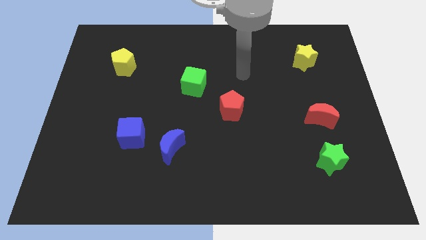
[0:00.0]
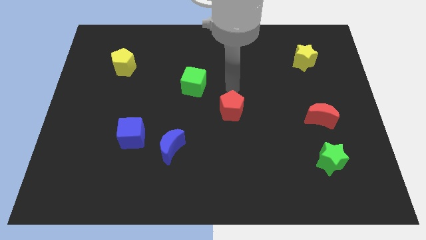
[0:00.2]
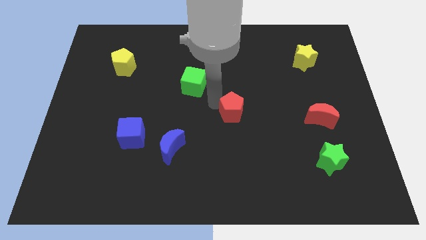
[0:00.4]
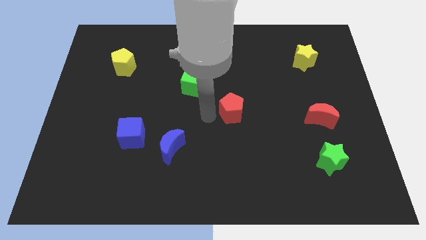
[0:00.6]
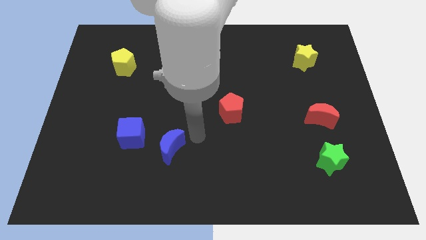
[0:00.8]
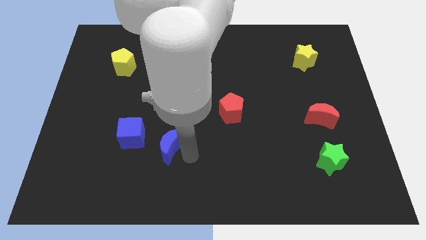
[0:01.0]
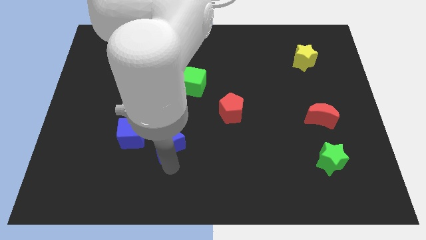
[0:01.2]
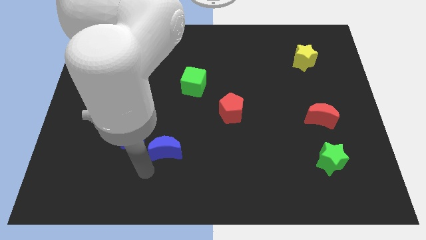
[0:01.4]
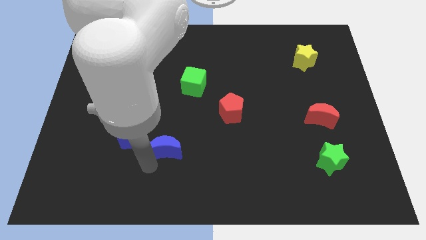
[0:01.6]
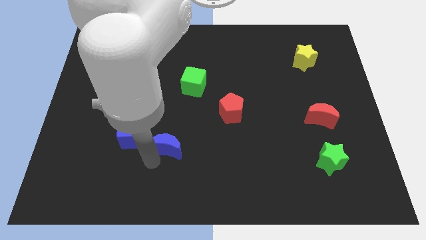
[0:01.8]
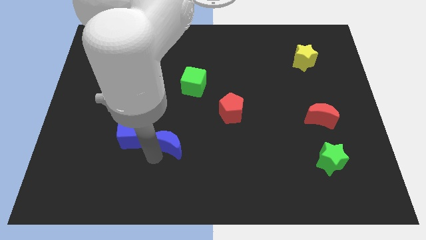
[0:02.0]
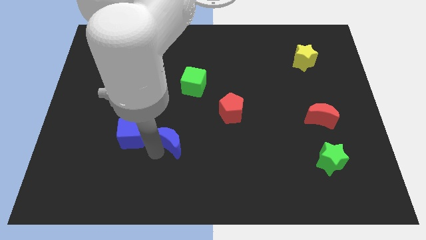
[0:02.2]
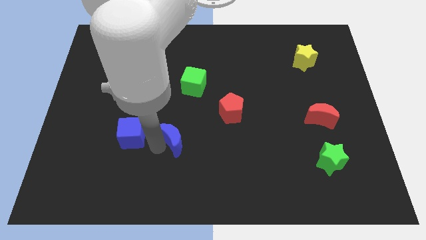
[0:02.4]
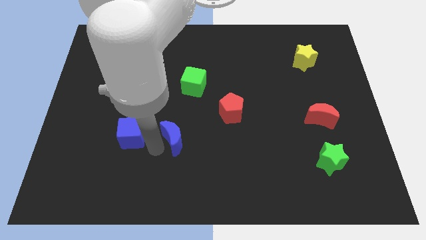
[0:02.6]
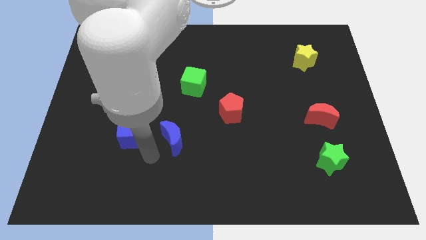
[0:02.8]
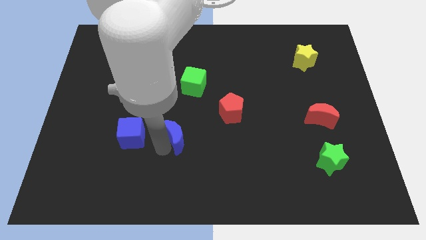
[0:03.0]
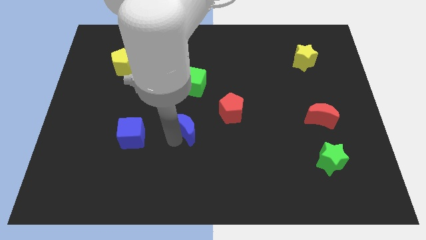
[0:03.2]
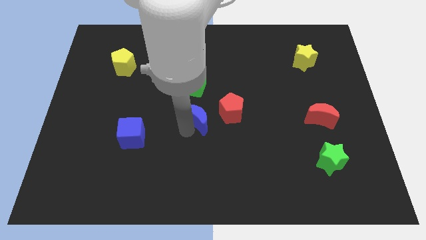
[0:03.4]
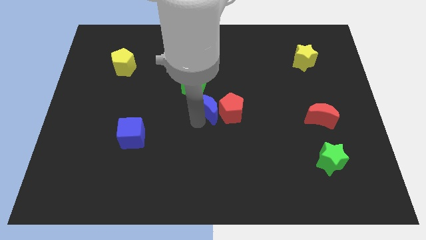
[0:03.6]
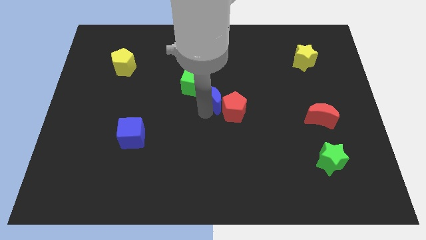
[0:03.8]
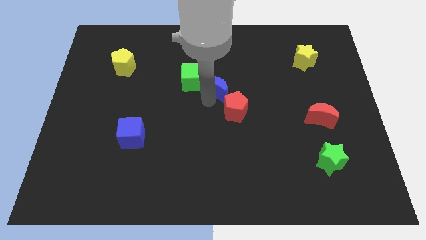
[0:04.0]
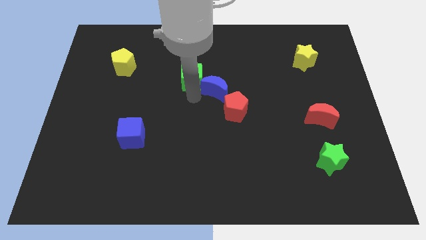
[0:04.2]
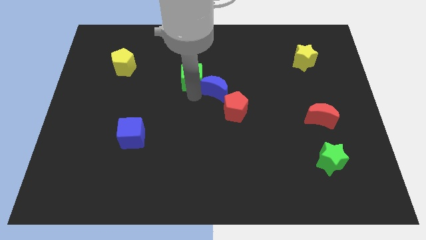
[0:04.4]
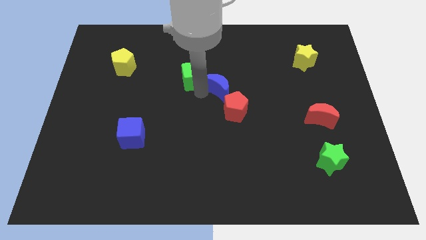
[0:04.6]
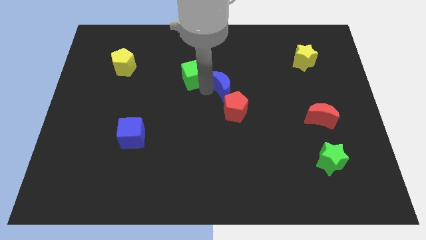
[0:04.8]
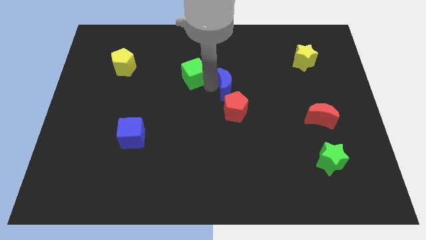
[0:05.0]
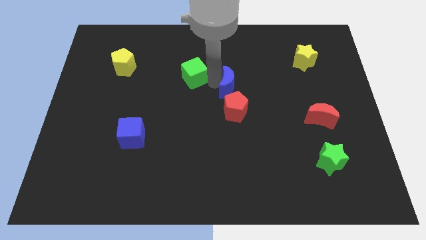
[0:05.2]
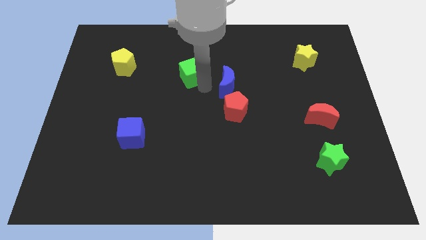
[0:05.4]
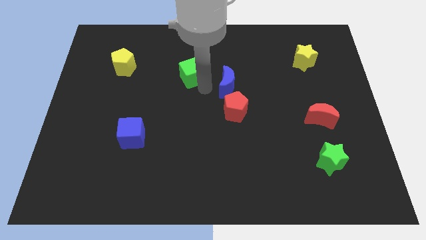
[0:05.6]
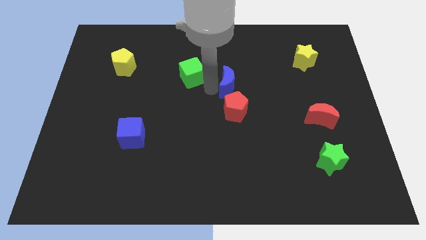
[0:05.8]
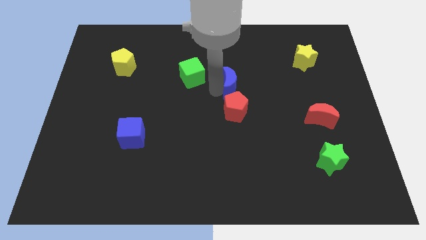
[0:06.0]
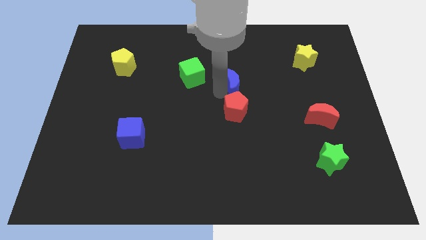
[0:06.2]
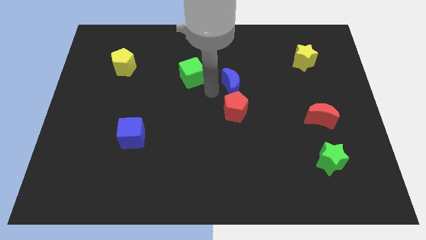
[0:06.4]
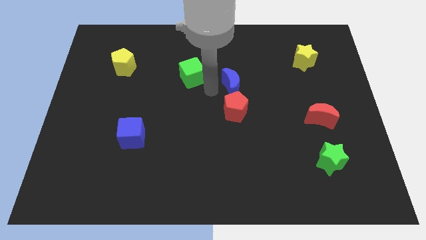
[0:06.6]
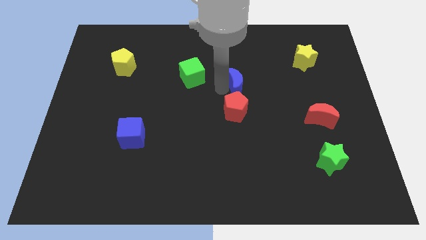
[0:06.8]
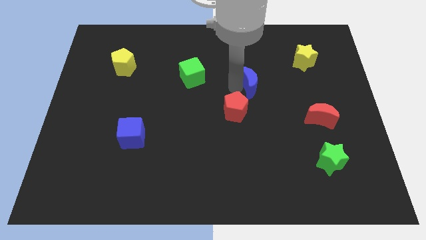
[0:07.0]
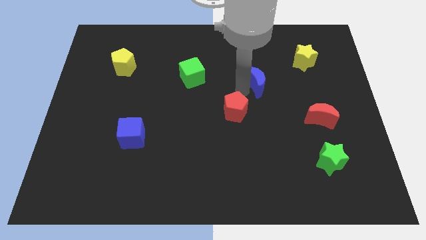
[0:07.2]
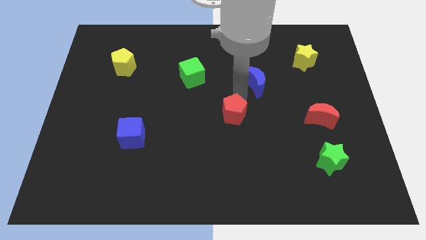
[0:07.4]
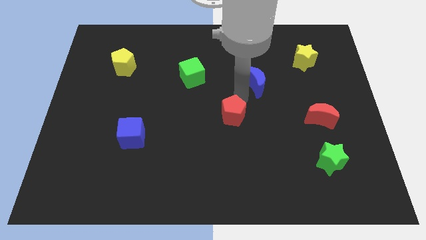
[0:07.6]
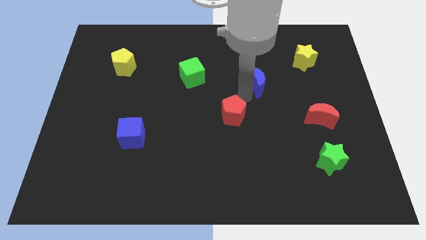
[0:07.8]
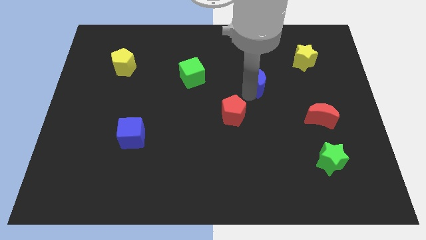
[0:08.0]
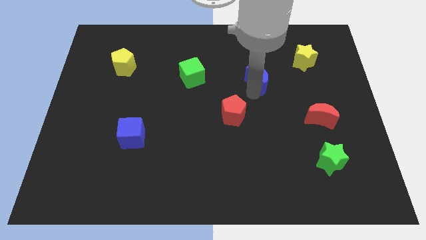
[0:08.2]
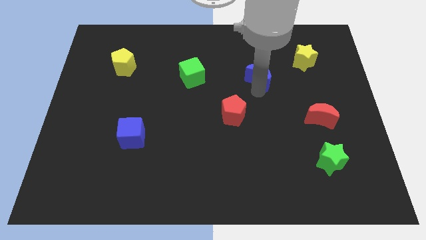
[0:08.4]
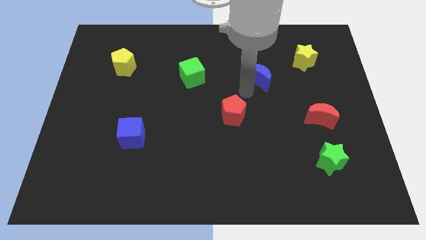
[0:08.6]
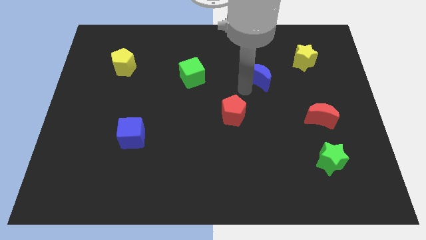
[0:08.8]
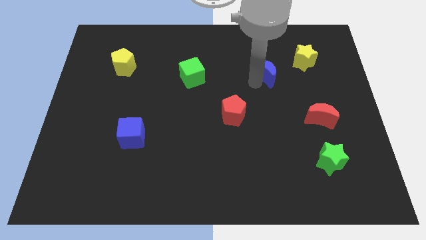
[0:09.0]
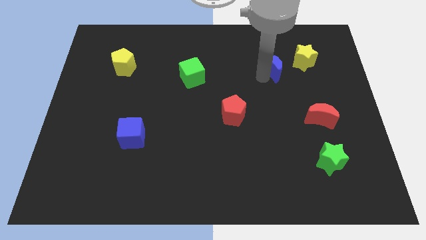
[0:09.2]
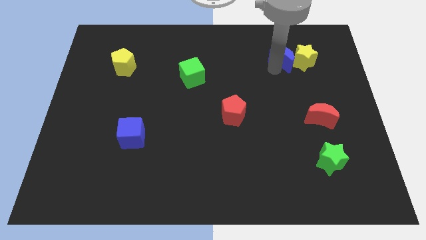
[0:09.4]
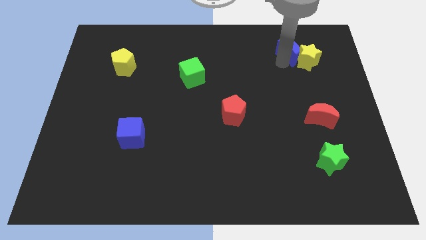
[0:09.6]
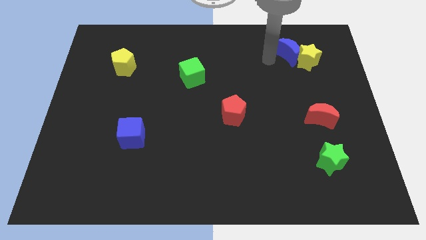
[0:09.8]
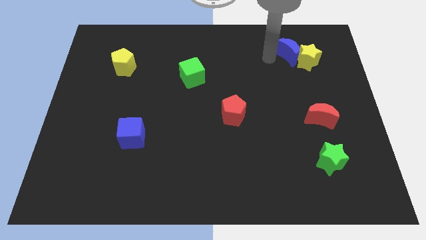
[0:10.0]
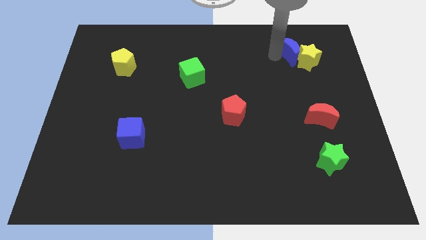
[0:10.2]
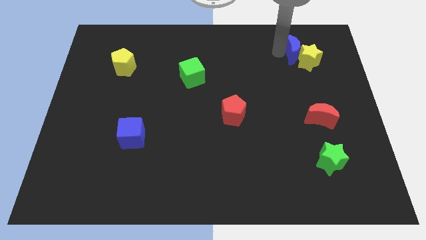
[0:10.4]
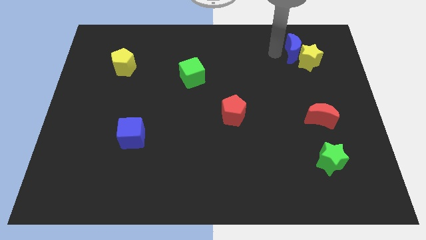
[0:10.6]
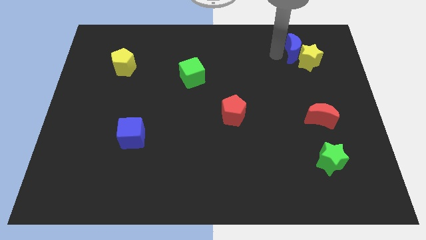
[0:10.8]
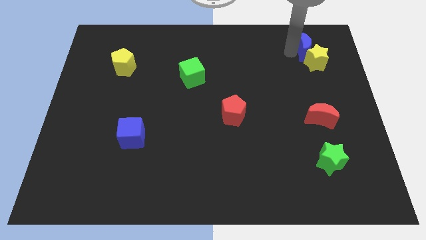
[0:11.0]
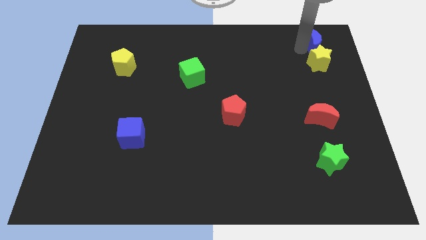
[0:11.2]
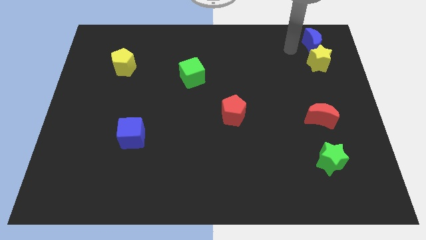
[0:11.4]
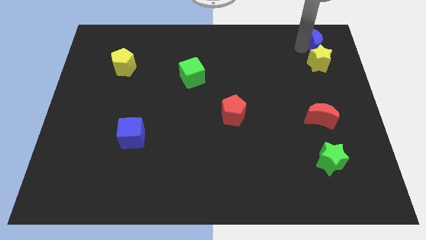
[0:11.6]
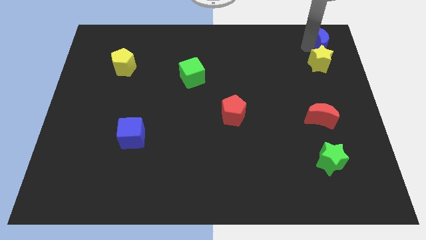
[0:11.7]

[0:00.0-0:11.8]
slide the blue moon to the top right corner

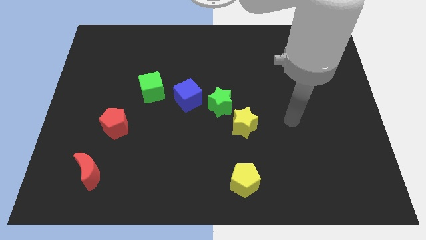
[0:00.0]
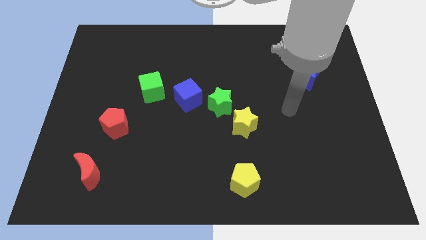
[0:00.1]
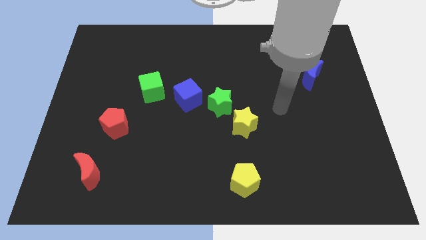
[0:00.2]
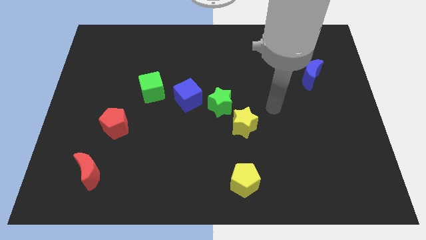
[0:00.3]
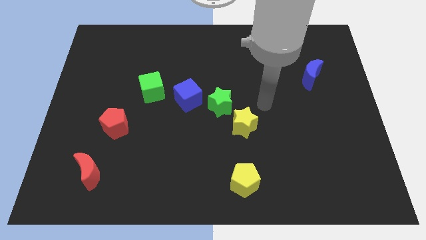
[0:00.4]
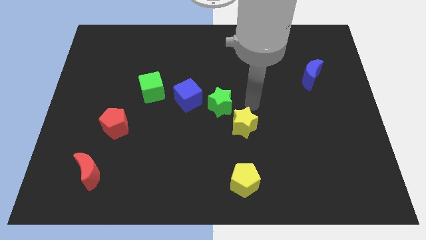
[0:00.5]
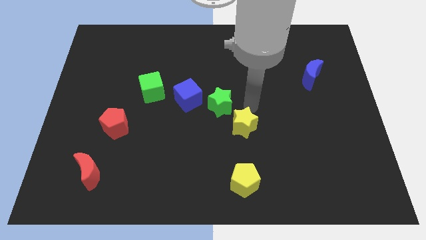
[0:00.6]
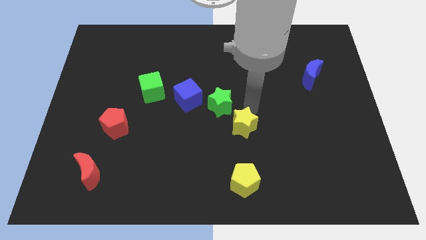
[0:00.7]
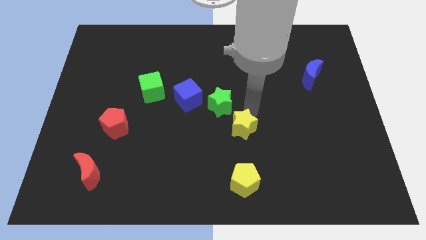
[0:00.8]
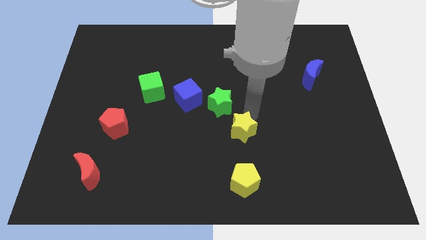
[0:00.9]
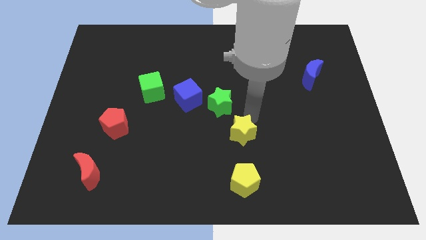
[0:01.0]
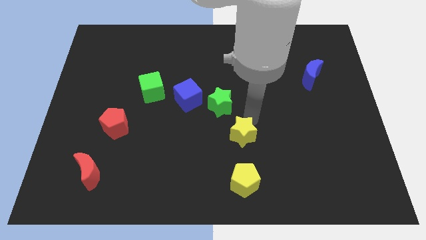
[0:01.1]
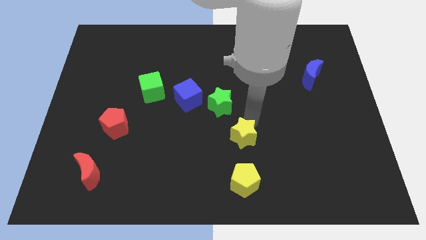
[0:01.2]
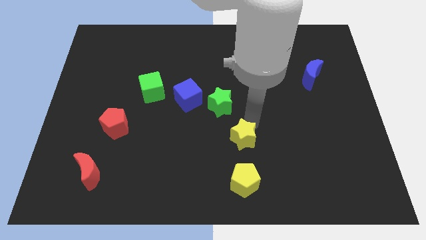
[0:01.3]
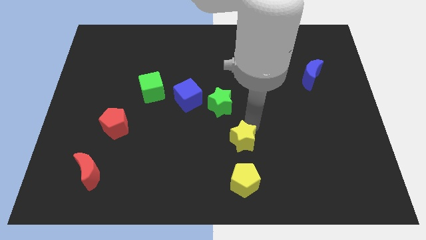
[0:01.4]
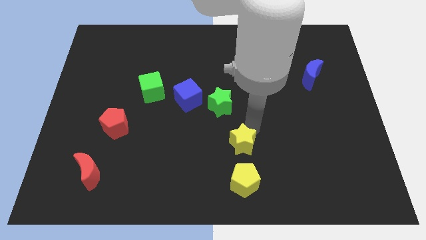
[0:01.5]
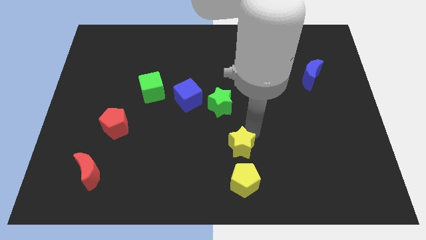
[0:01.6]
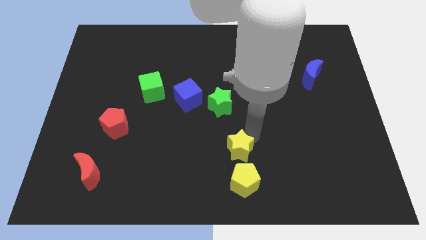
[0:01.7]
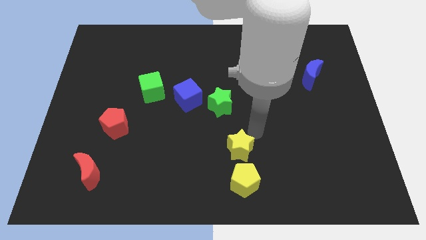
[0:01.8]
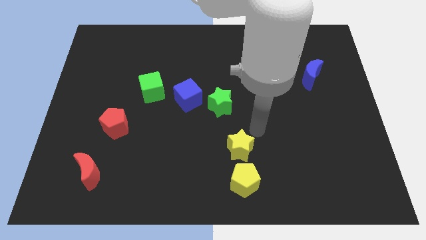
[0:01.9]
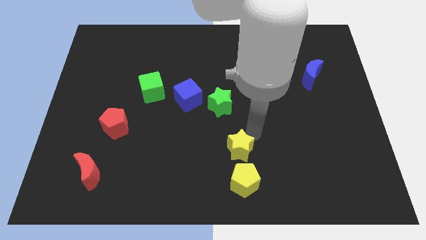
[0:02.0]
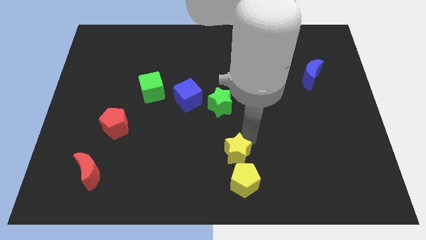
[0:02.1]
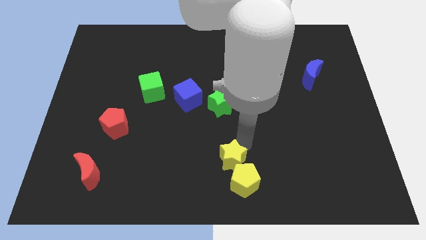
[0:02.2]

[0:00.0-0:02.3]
put the yellow star to the bottom side
